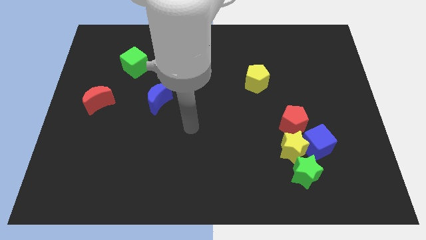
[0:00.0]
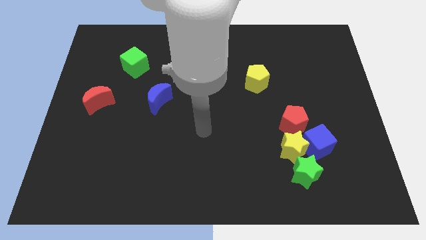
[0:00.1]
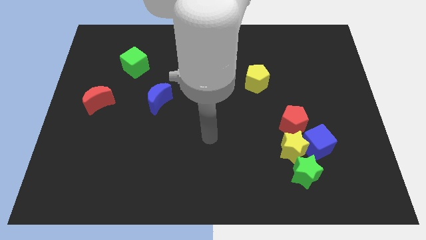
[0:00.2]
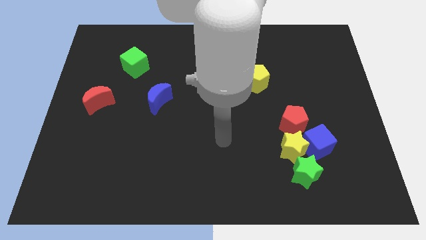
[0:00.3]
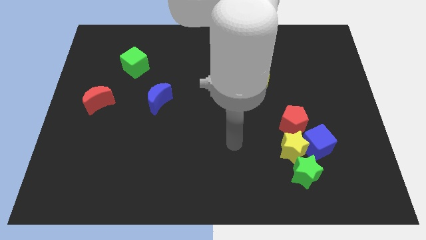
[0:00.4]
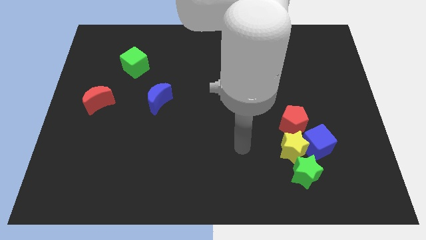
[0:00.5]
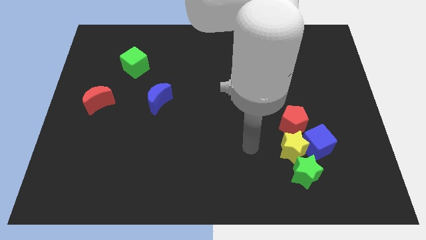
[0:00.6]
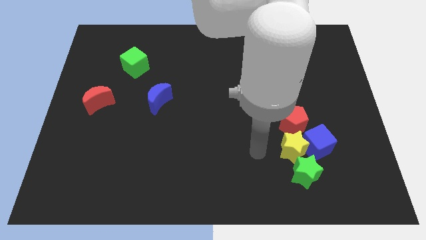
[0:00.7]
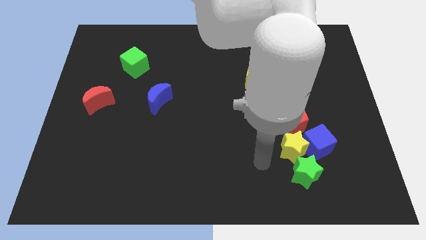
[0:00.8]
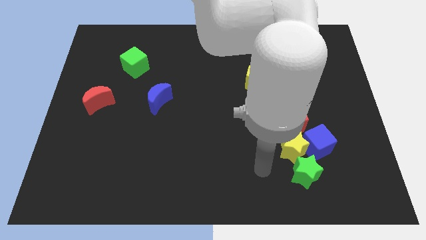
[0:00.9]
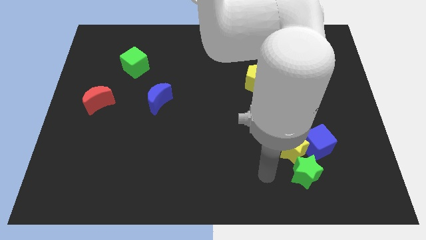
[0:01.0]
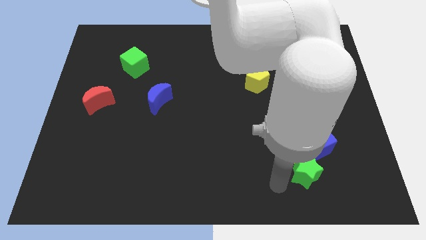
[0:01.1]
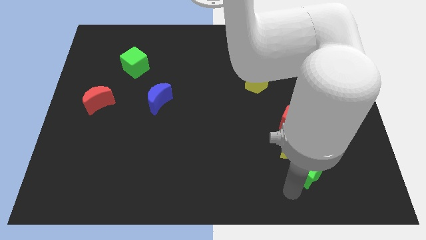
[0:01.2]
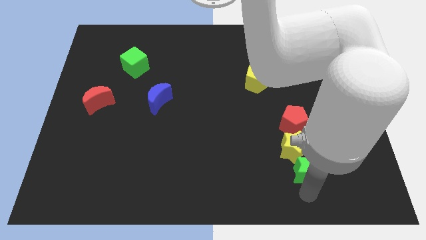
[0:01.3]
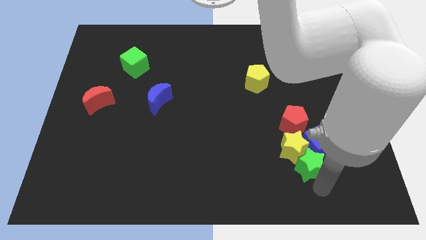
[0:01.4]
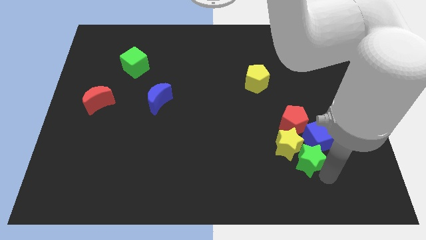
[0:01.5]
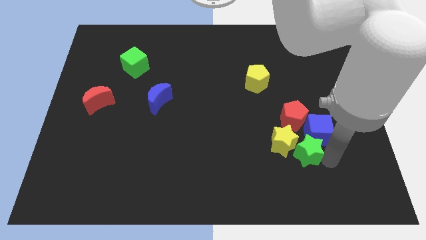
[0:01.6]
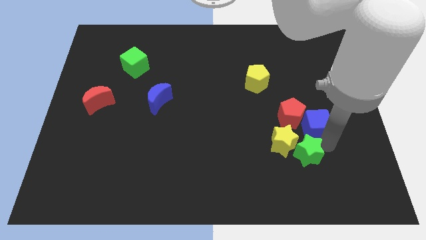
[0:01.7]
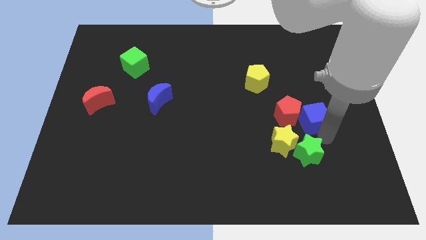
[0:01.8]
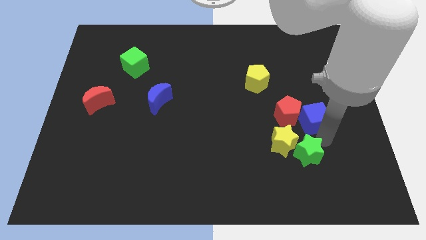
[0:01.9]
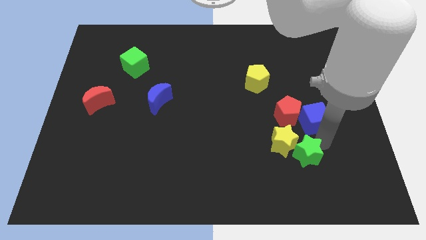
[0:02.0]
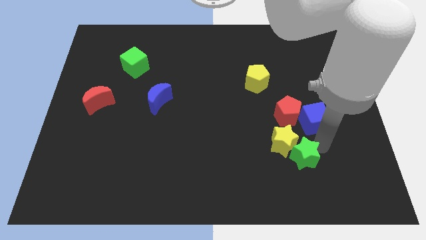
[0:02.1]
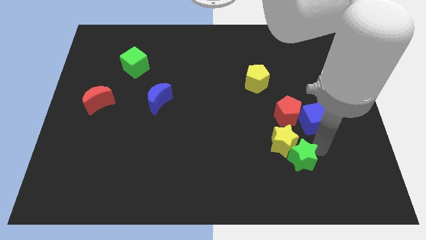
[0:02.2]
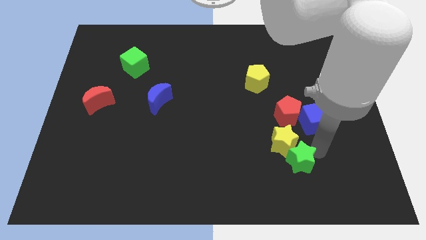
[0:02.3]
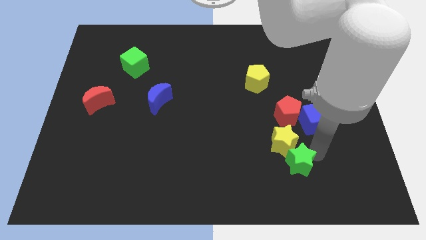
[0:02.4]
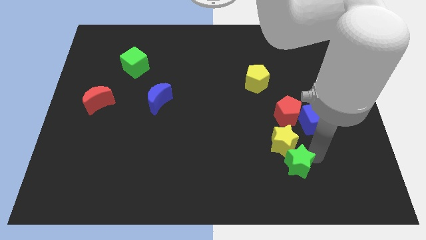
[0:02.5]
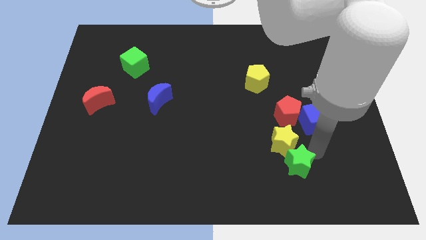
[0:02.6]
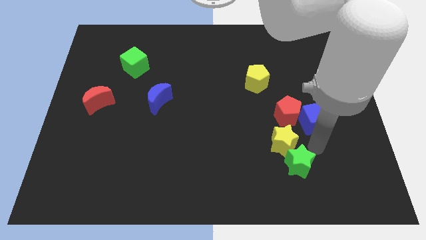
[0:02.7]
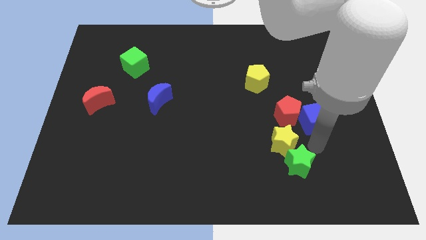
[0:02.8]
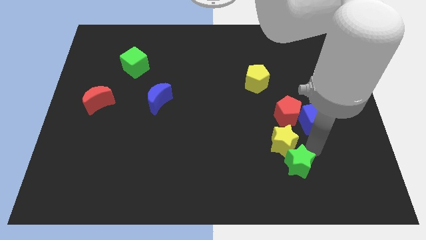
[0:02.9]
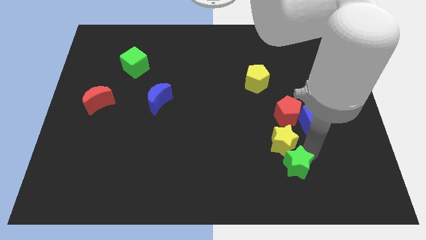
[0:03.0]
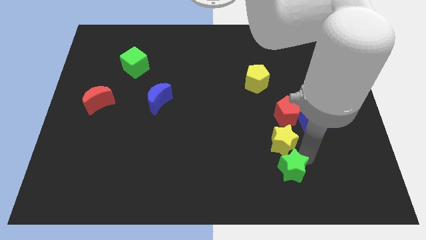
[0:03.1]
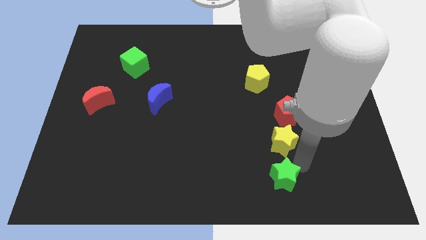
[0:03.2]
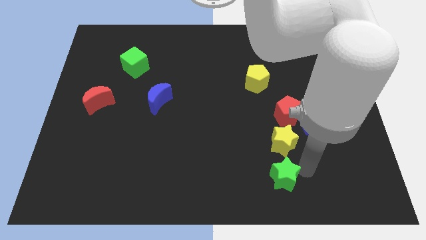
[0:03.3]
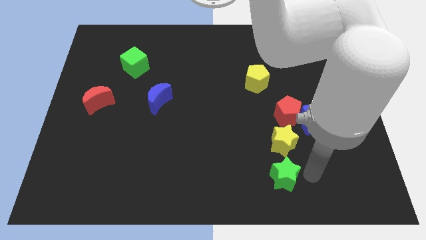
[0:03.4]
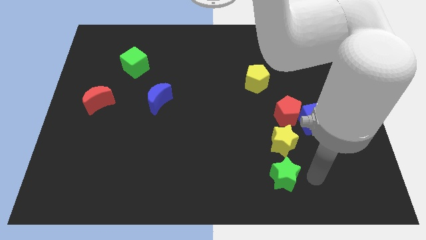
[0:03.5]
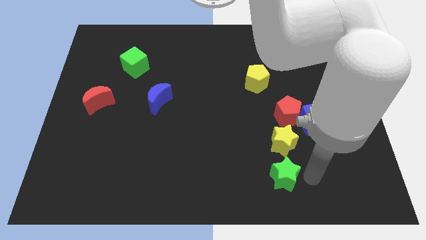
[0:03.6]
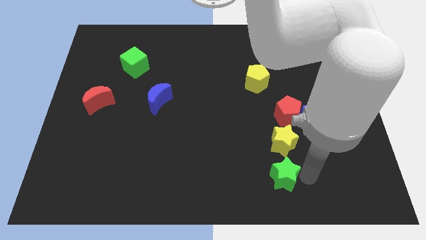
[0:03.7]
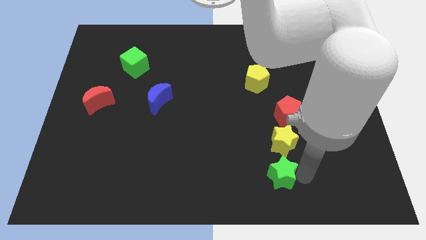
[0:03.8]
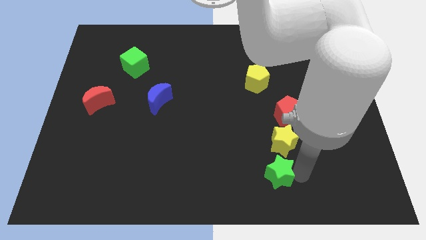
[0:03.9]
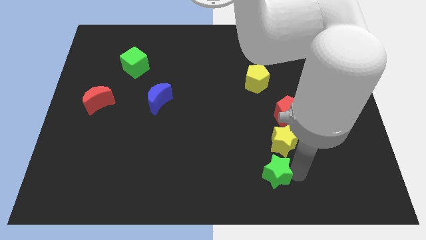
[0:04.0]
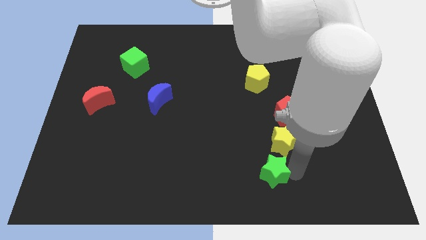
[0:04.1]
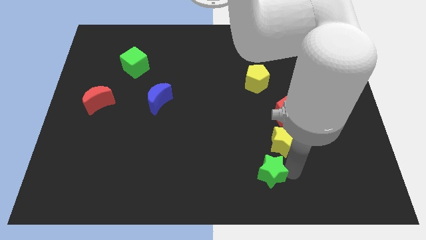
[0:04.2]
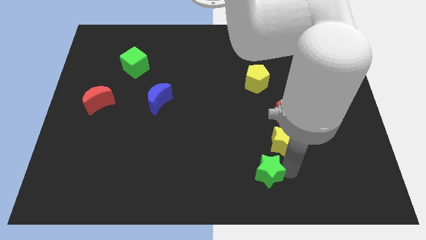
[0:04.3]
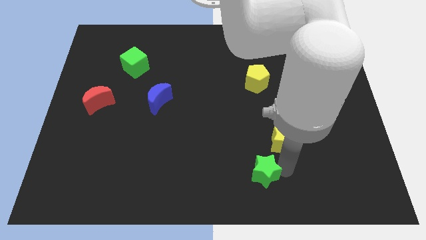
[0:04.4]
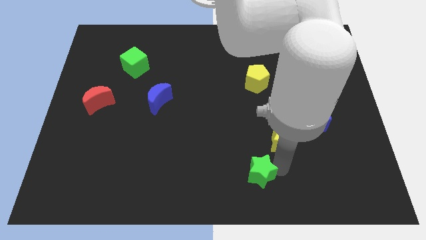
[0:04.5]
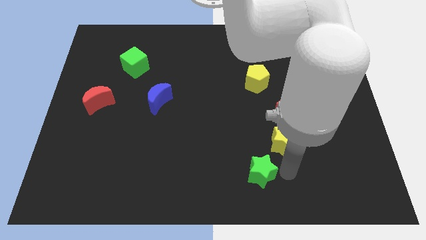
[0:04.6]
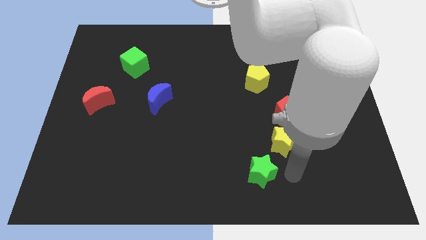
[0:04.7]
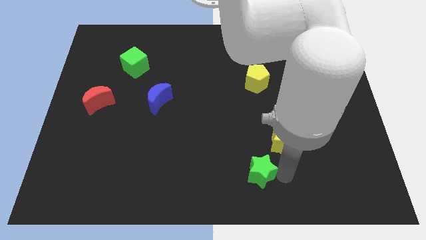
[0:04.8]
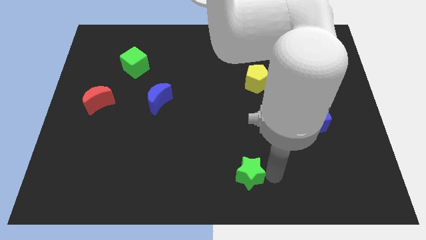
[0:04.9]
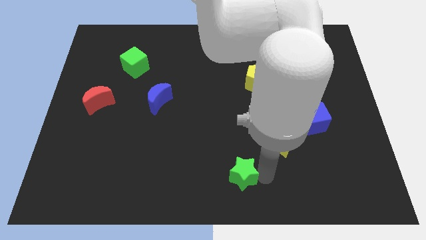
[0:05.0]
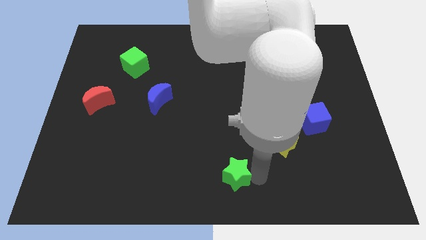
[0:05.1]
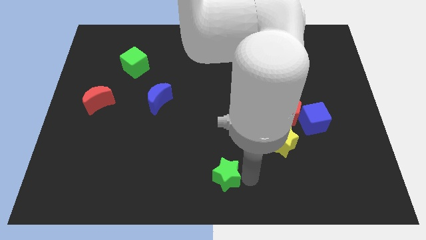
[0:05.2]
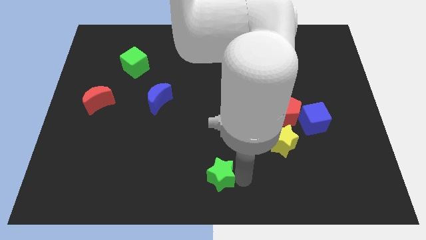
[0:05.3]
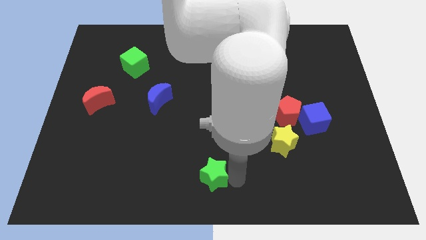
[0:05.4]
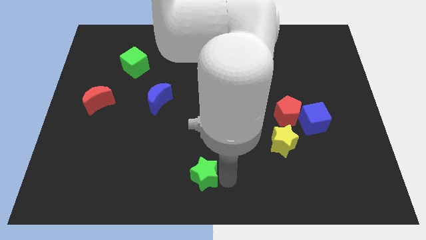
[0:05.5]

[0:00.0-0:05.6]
push the green star left

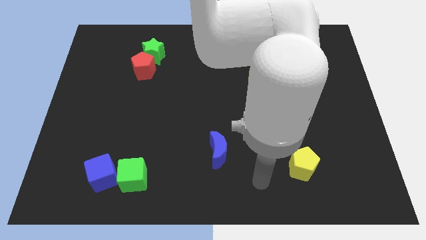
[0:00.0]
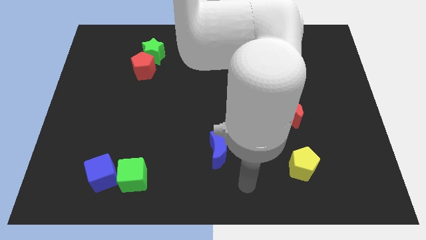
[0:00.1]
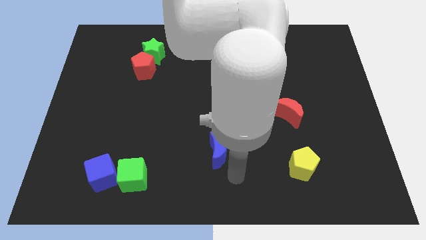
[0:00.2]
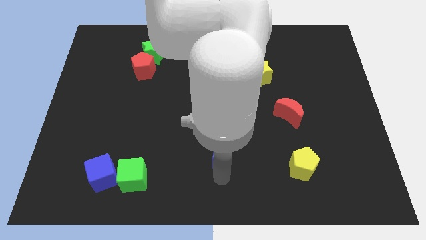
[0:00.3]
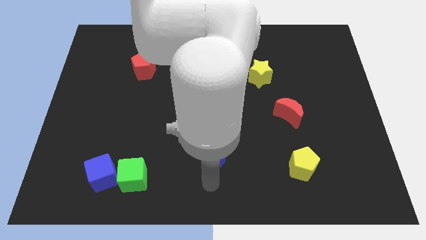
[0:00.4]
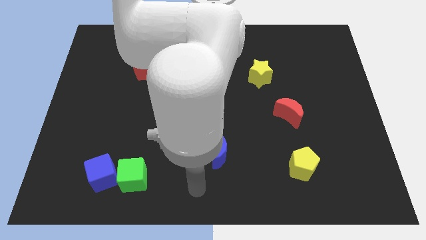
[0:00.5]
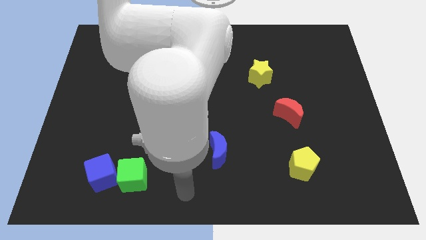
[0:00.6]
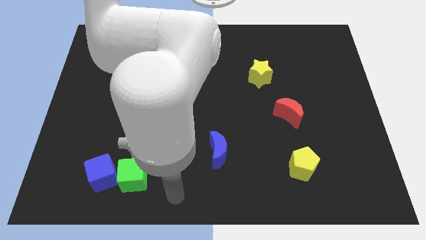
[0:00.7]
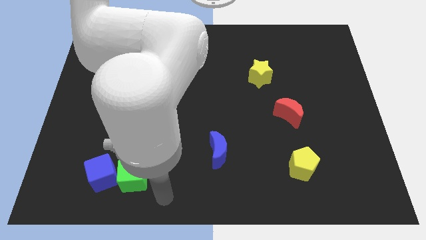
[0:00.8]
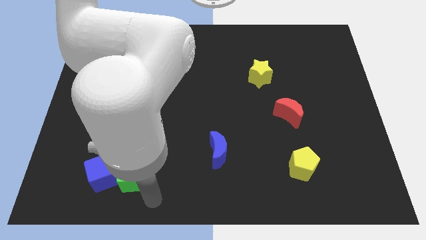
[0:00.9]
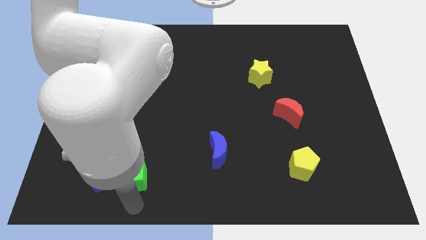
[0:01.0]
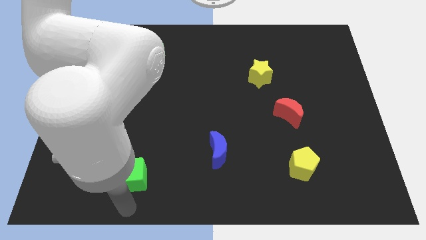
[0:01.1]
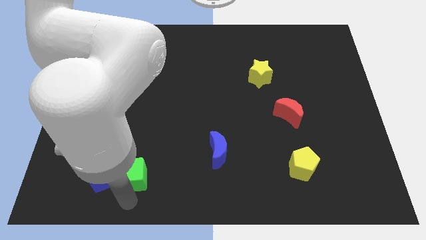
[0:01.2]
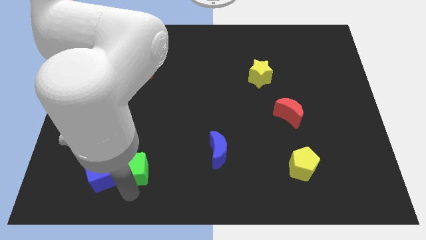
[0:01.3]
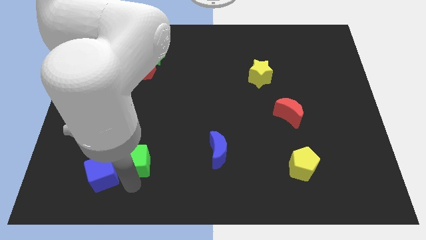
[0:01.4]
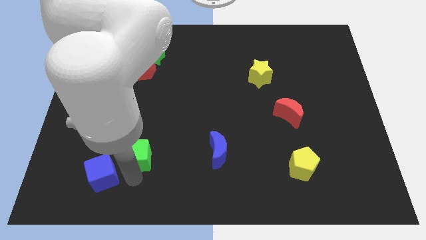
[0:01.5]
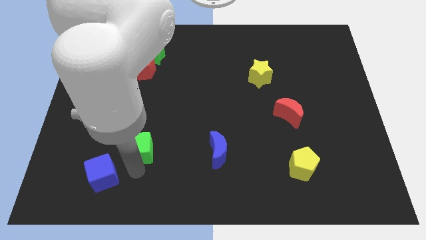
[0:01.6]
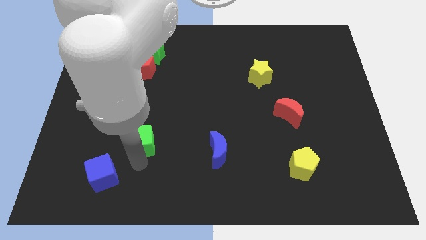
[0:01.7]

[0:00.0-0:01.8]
move the green cube upwards somewhat

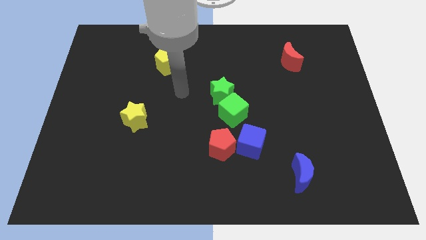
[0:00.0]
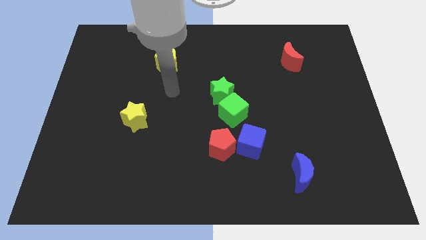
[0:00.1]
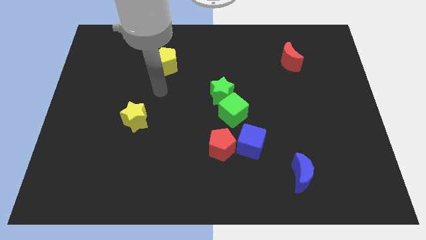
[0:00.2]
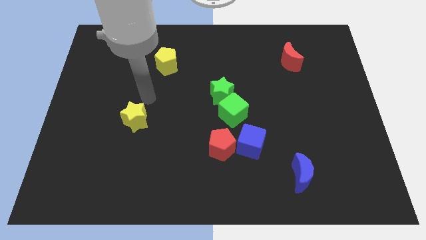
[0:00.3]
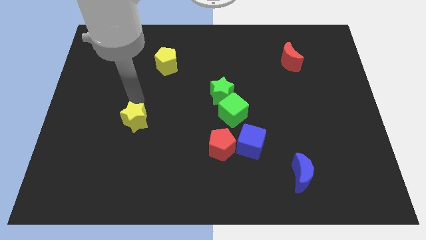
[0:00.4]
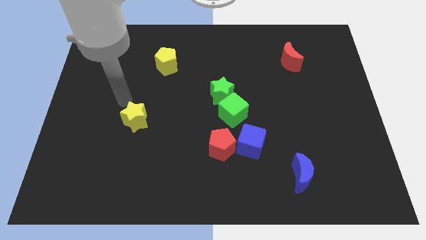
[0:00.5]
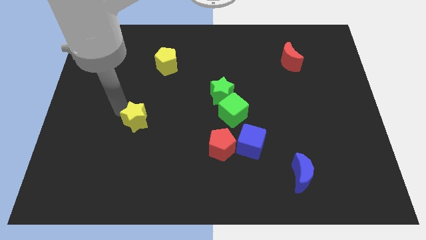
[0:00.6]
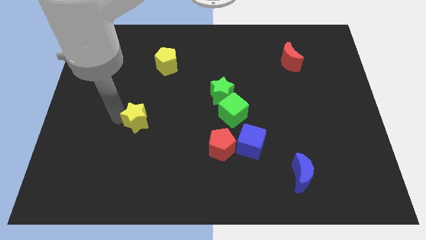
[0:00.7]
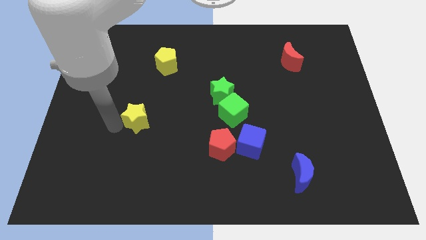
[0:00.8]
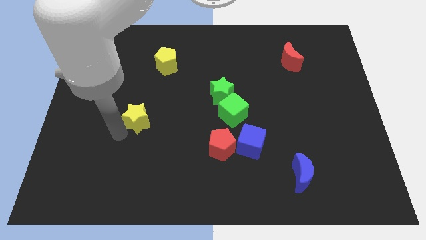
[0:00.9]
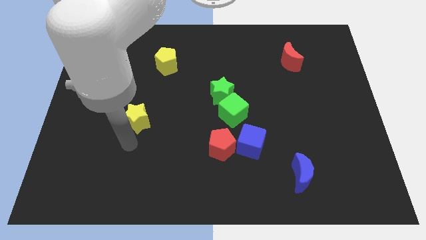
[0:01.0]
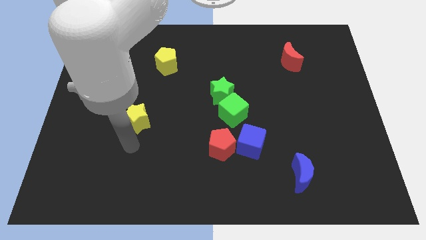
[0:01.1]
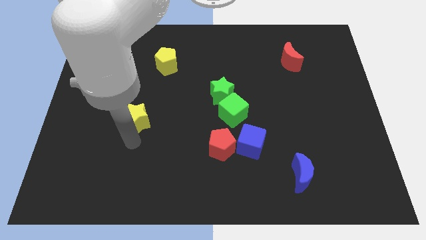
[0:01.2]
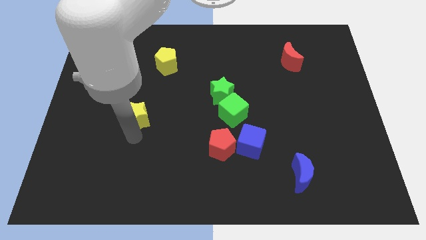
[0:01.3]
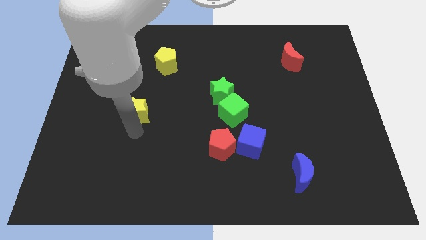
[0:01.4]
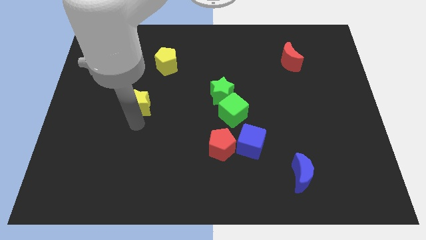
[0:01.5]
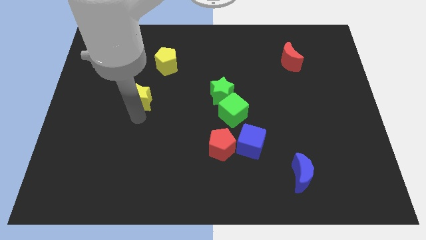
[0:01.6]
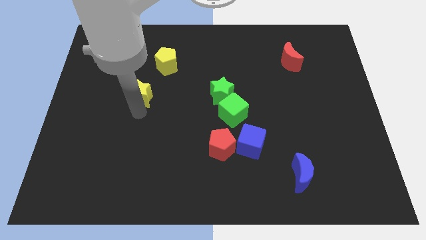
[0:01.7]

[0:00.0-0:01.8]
slightly move the yellow star up
